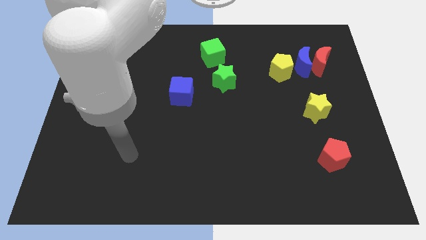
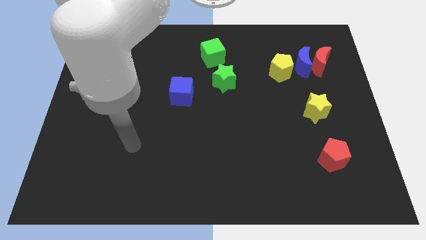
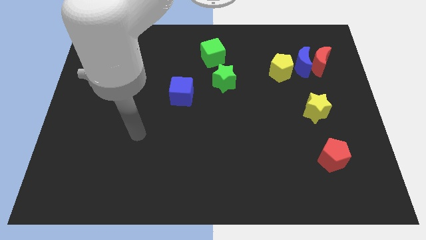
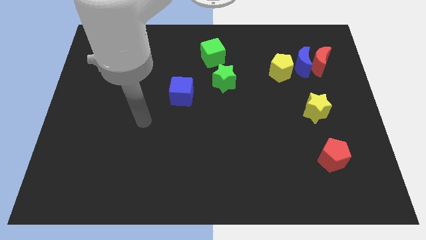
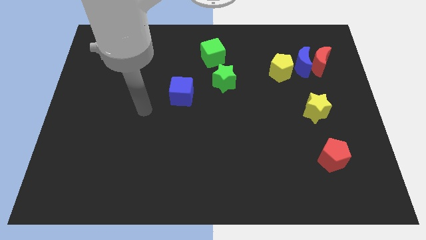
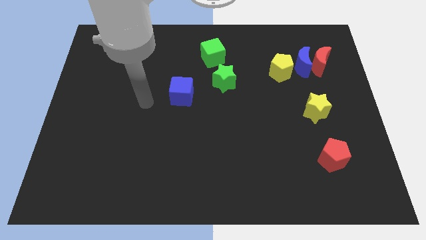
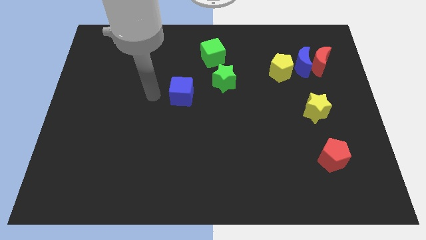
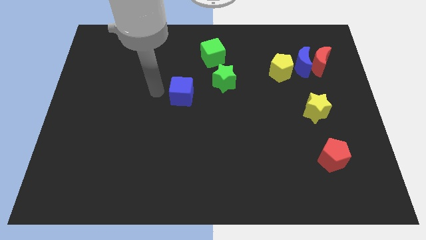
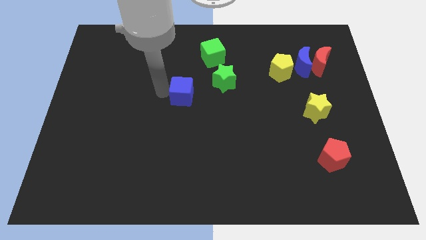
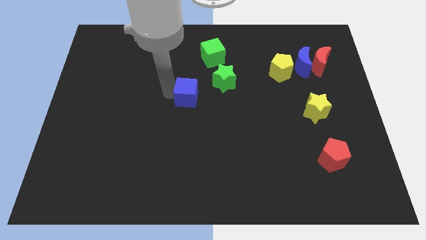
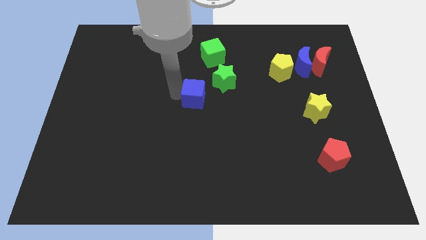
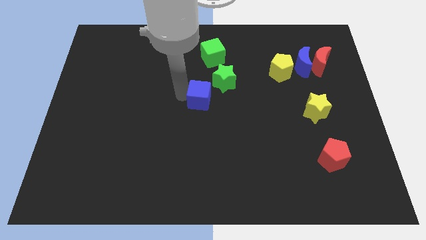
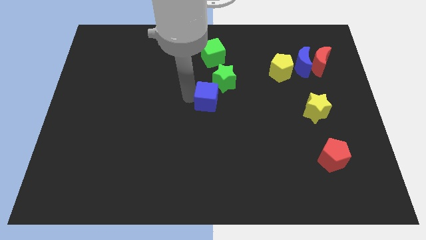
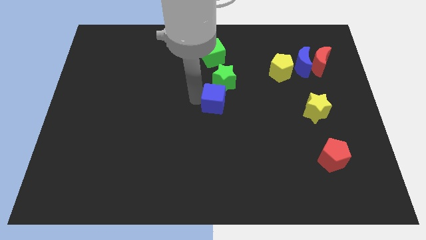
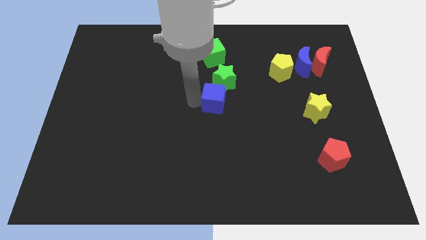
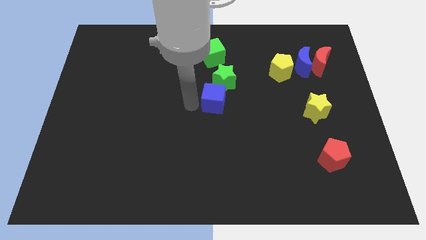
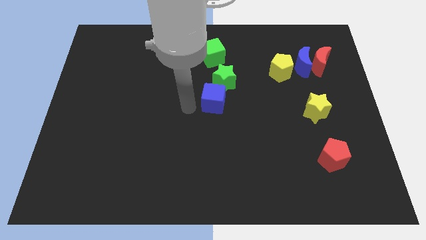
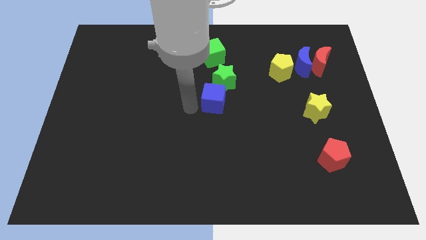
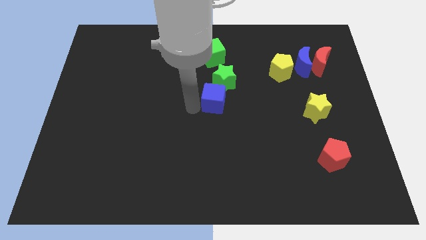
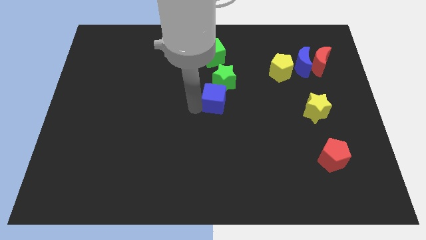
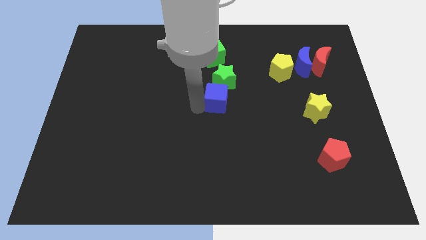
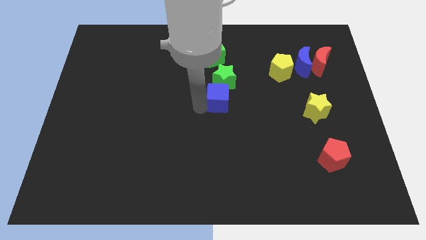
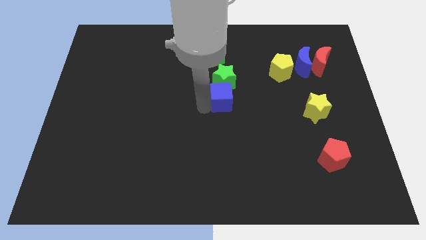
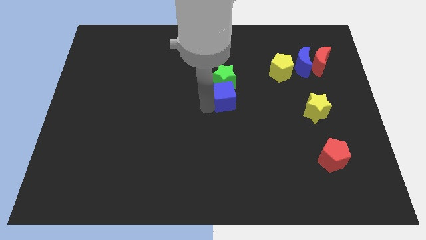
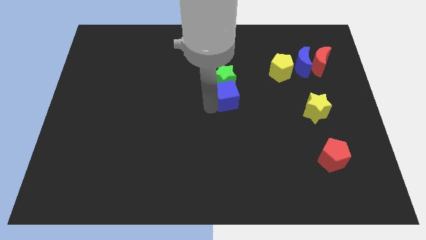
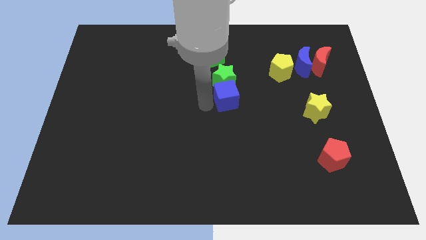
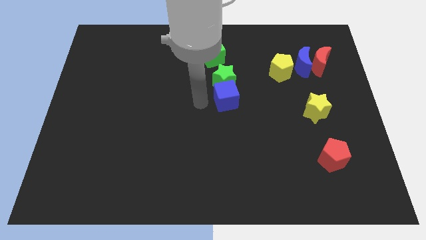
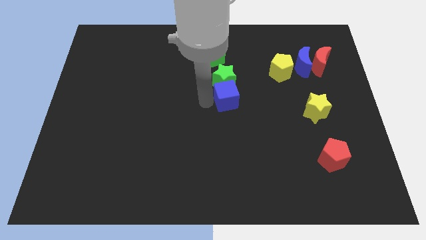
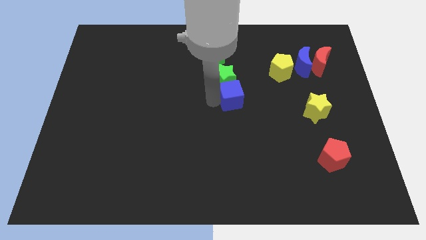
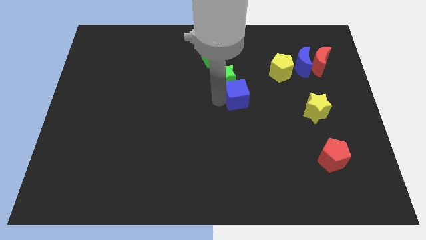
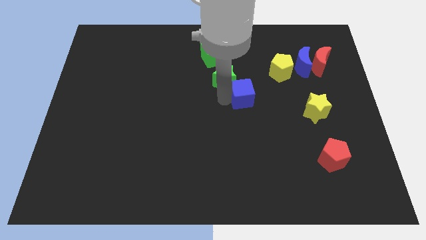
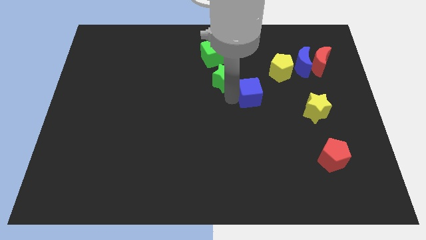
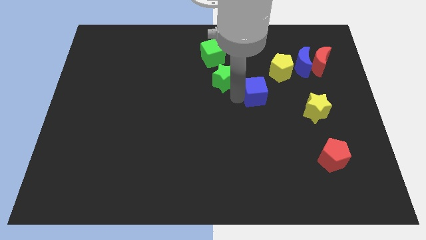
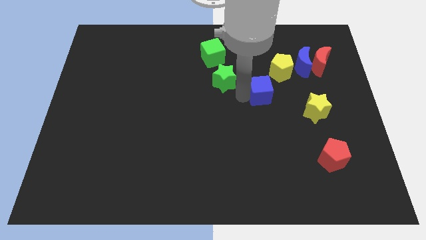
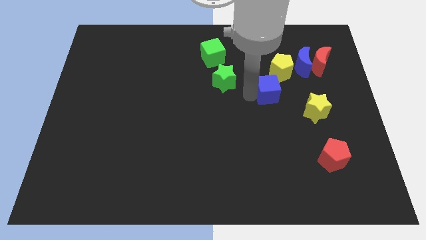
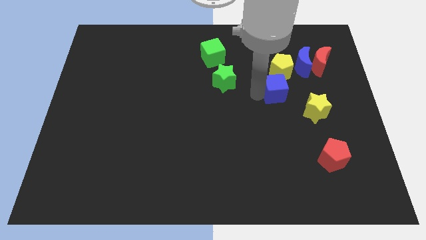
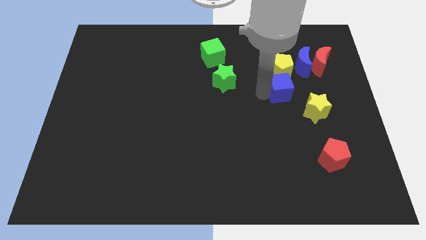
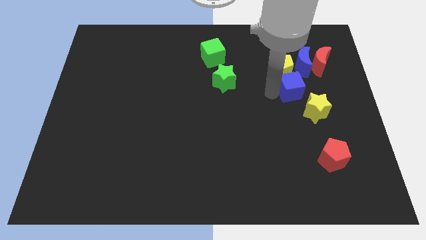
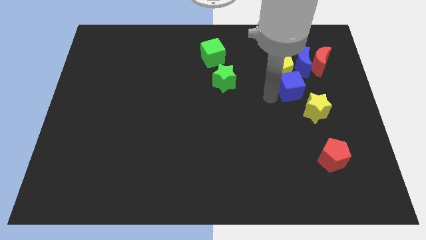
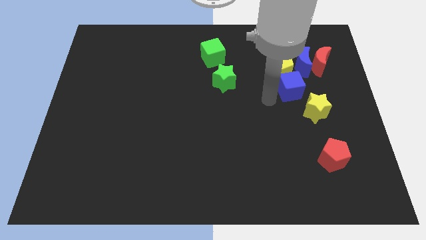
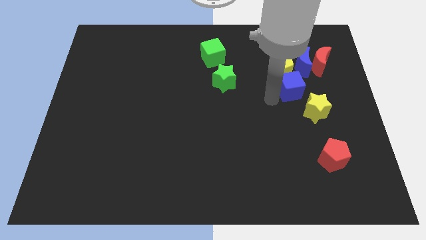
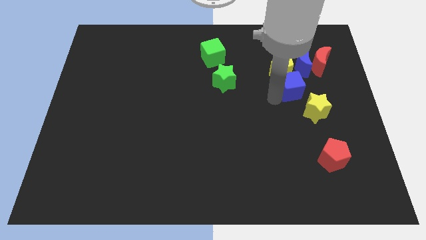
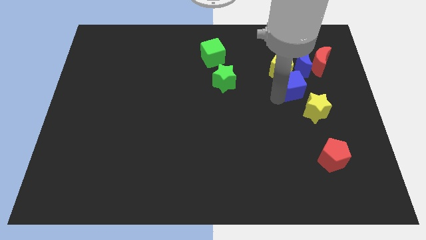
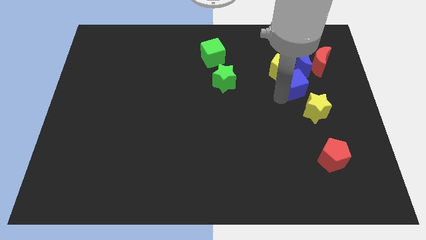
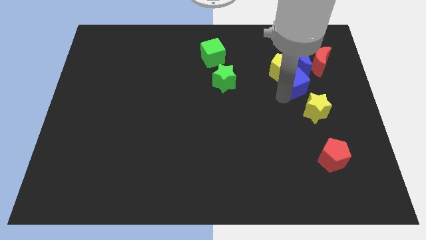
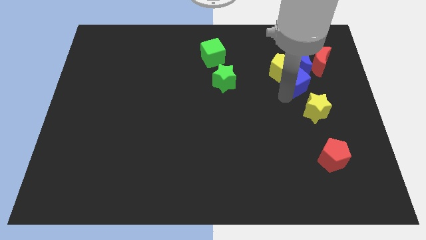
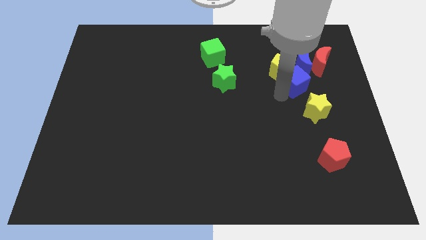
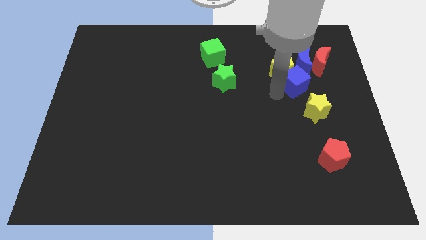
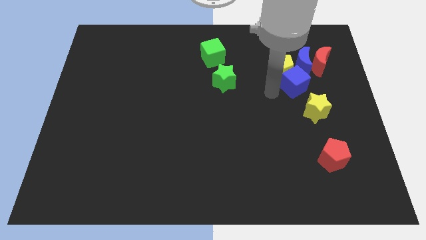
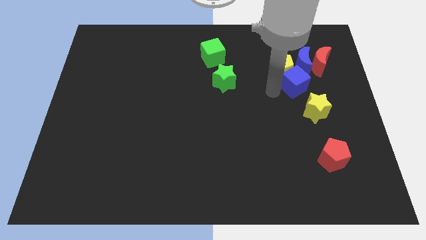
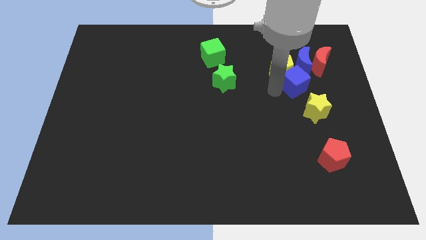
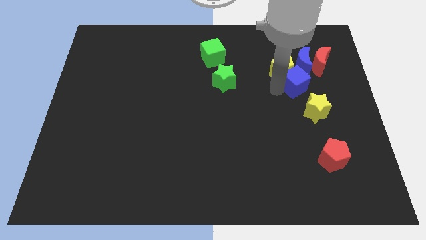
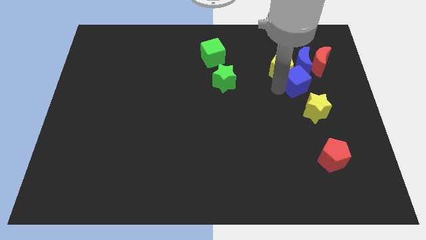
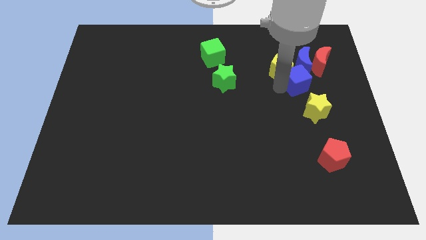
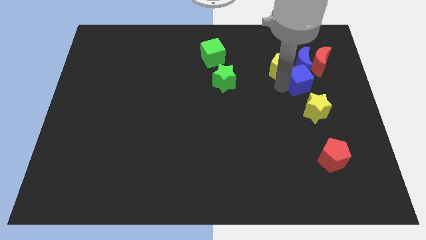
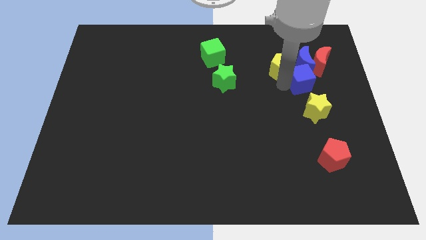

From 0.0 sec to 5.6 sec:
slide the blue cube close to the blue moon

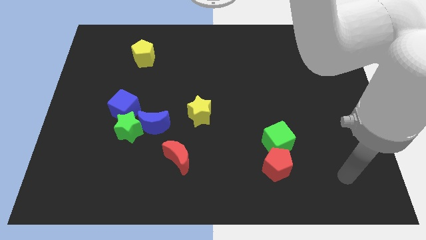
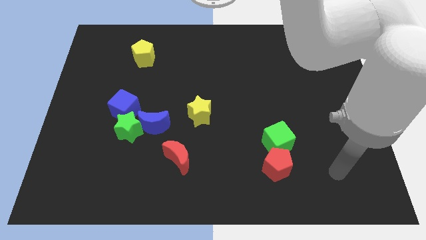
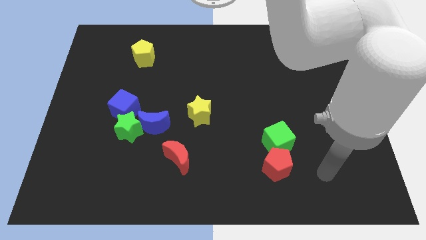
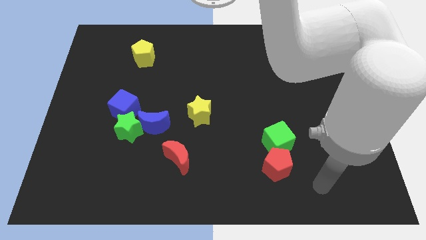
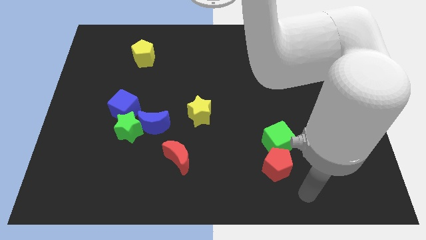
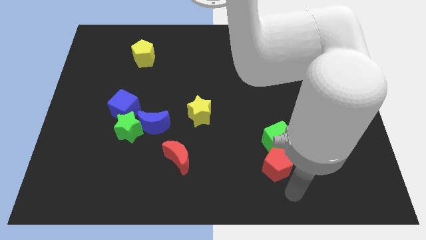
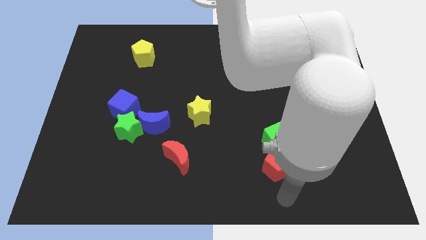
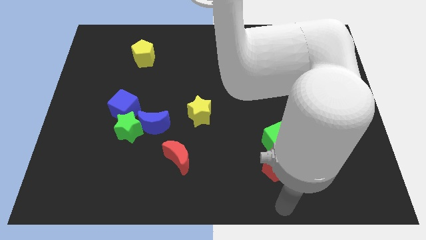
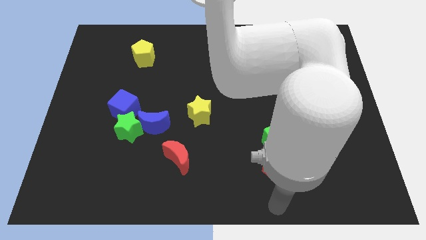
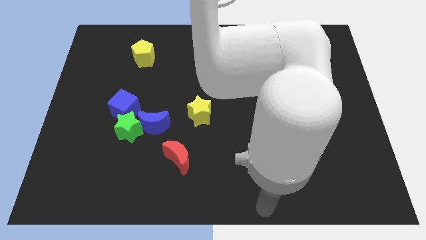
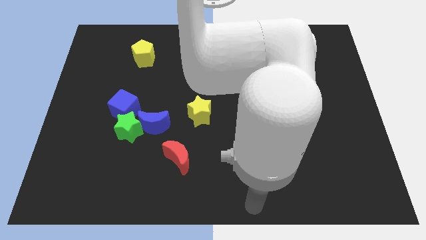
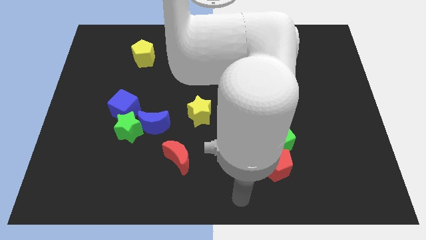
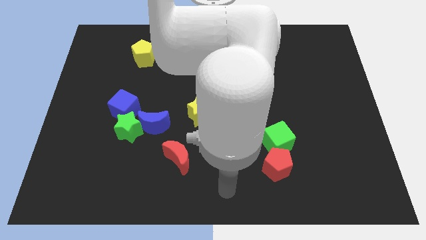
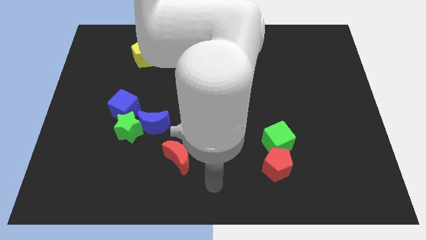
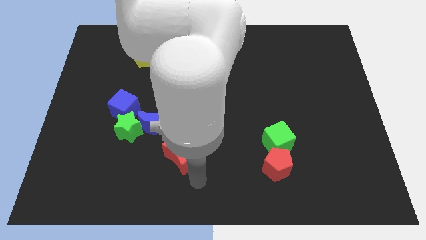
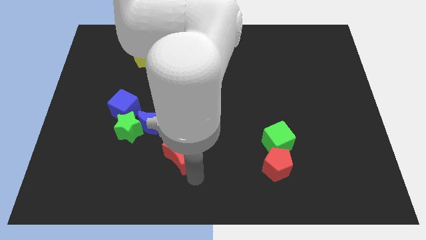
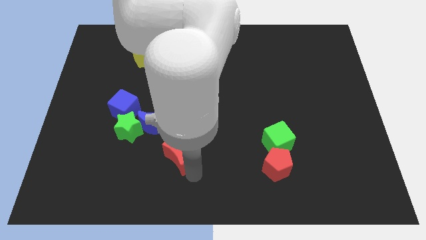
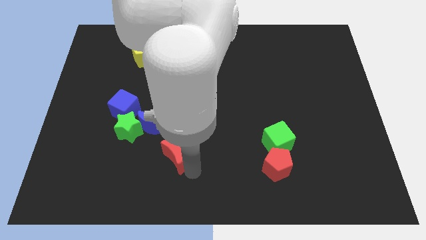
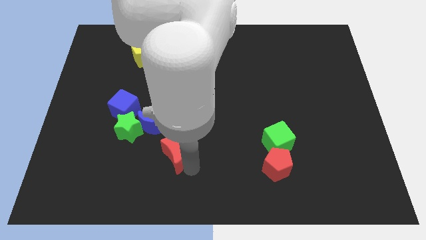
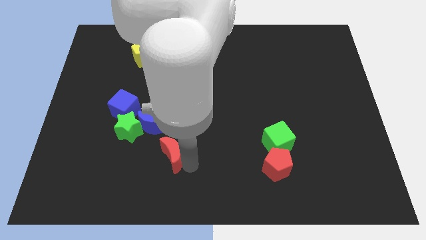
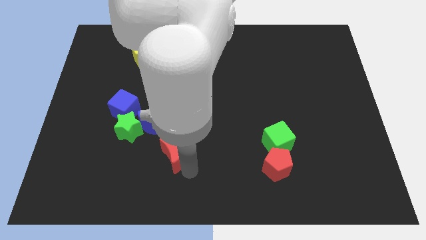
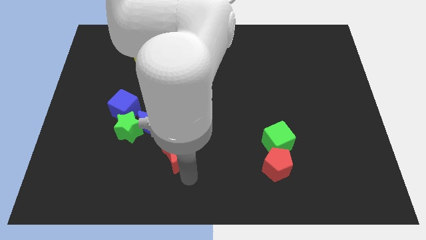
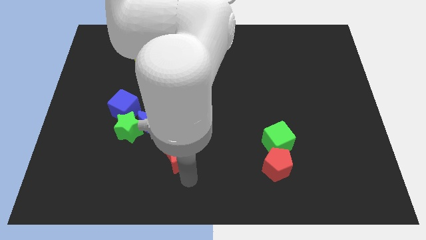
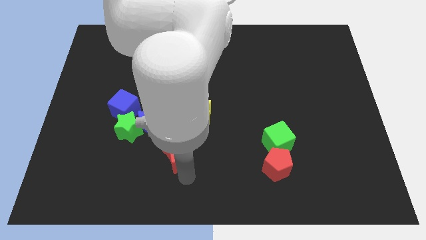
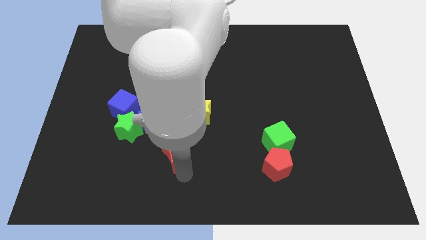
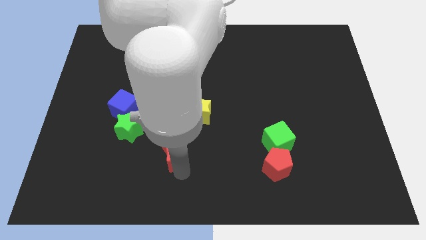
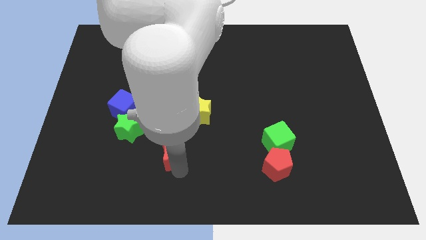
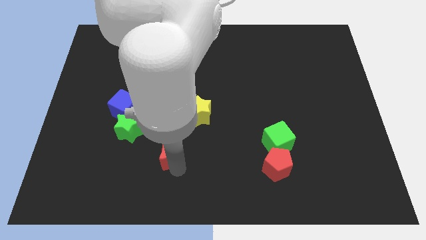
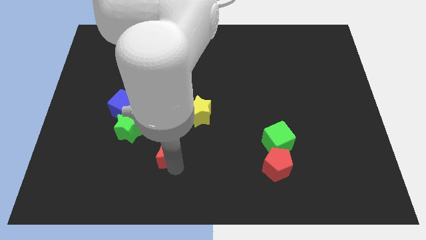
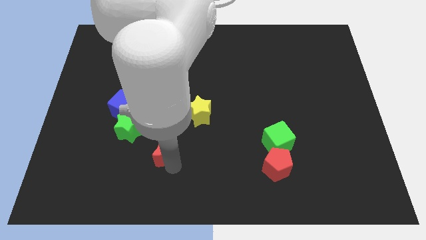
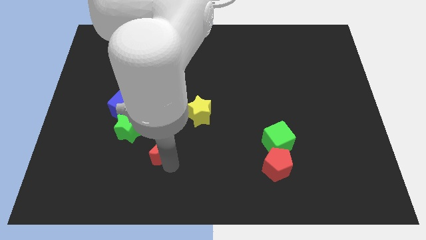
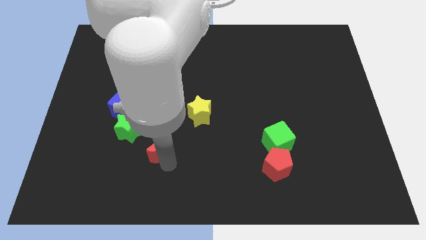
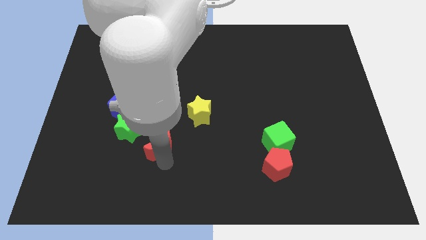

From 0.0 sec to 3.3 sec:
put the red moon next to the blue moon
